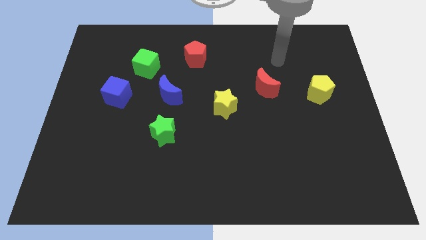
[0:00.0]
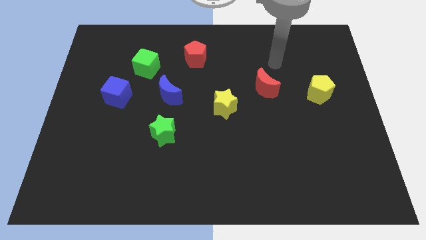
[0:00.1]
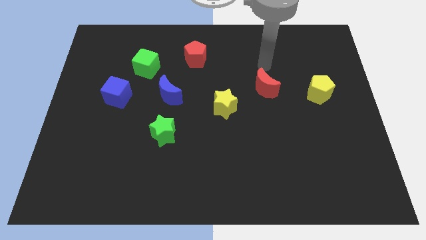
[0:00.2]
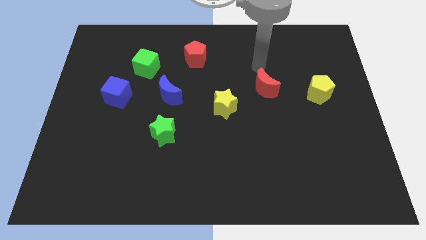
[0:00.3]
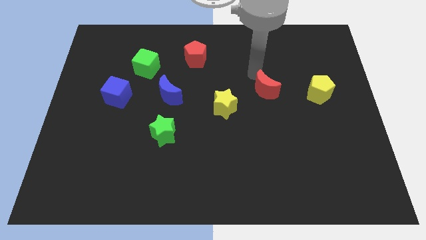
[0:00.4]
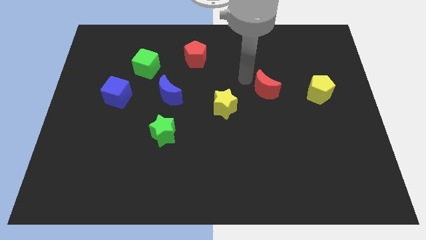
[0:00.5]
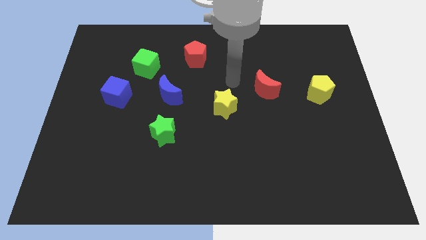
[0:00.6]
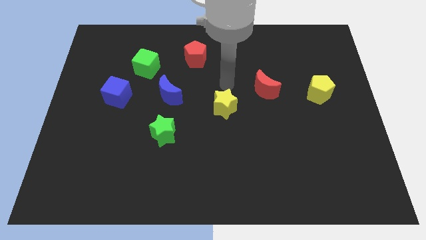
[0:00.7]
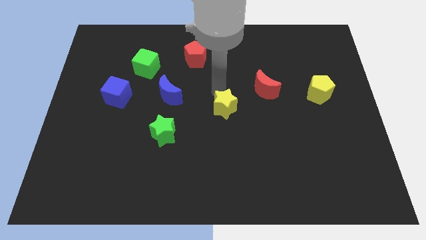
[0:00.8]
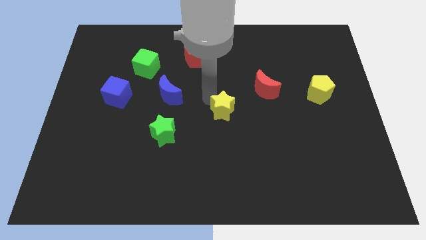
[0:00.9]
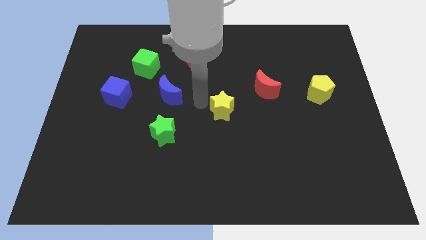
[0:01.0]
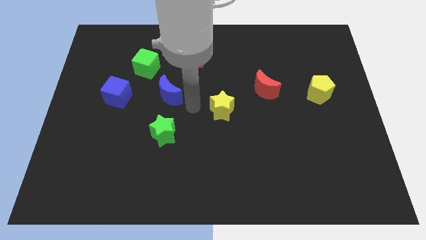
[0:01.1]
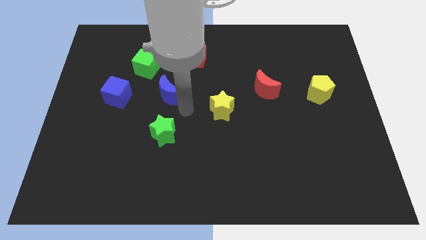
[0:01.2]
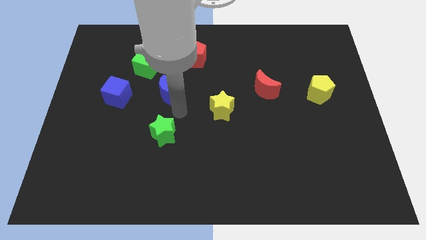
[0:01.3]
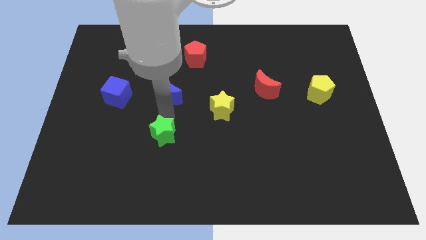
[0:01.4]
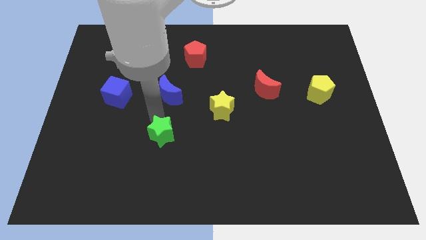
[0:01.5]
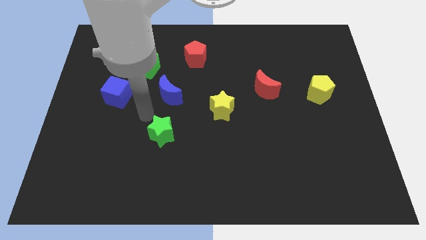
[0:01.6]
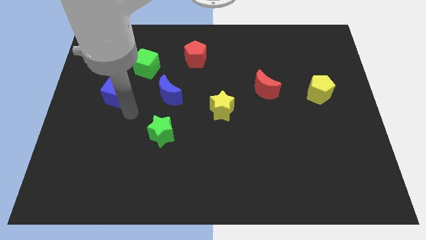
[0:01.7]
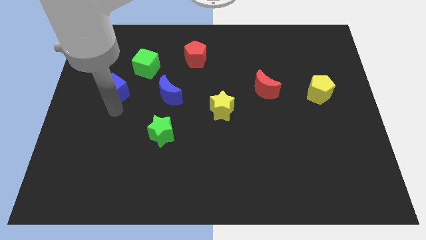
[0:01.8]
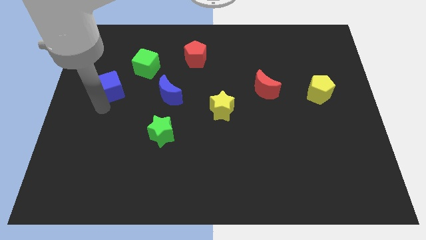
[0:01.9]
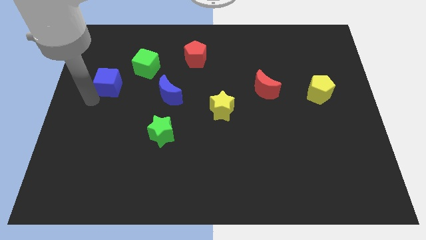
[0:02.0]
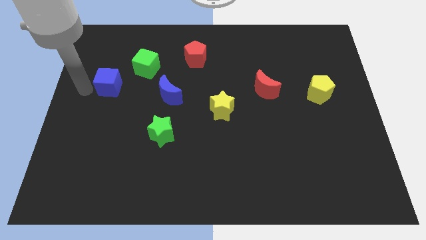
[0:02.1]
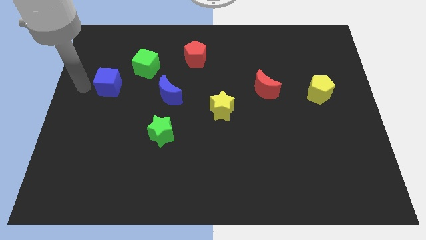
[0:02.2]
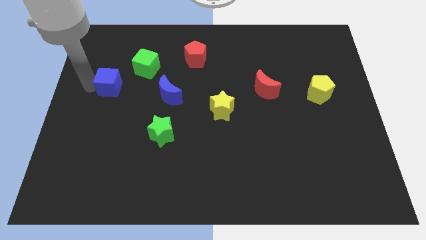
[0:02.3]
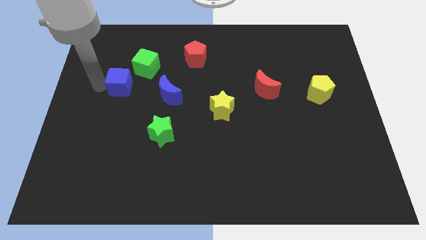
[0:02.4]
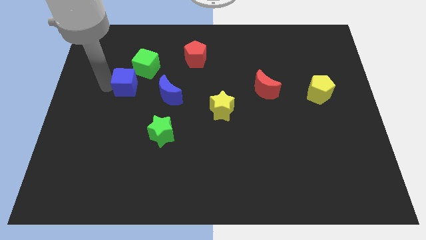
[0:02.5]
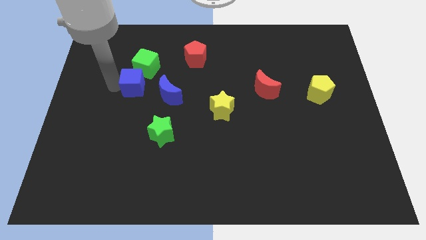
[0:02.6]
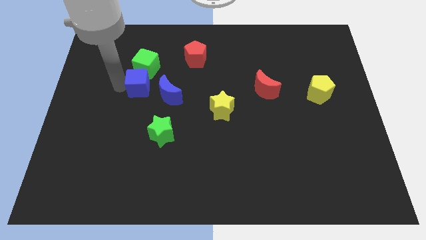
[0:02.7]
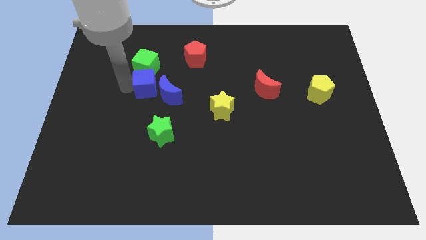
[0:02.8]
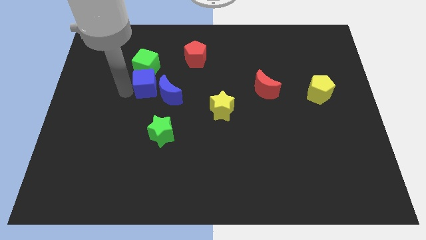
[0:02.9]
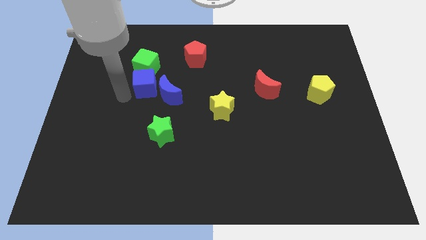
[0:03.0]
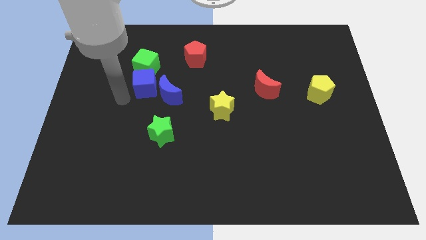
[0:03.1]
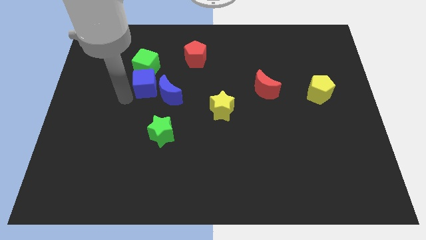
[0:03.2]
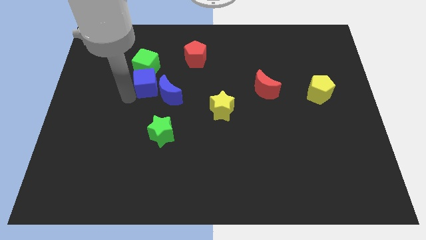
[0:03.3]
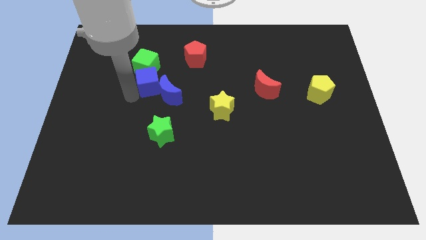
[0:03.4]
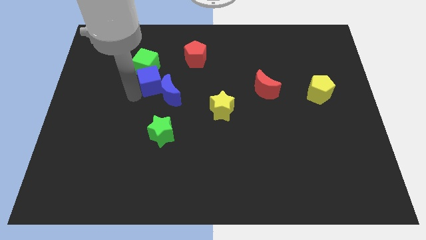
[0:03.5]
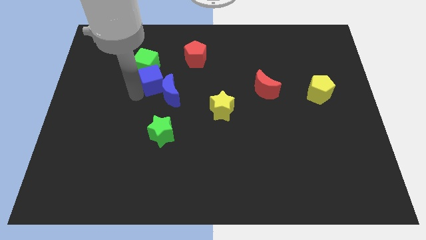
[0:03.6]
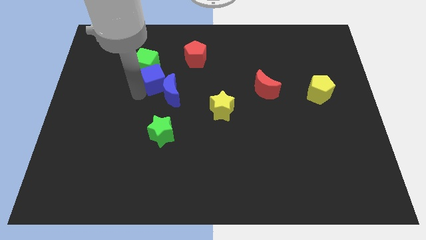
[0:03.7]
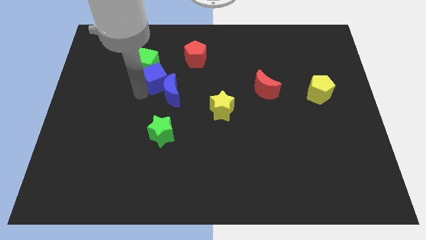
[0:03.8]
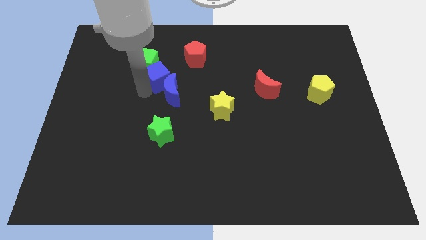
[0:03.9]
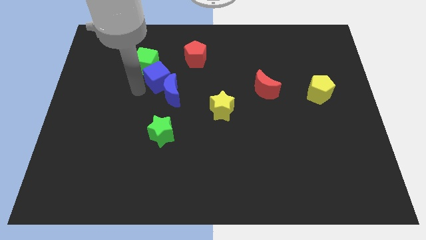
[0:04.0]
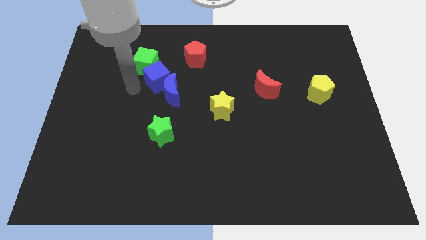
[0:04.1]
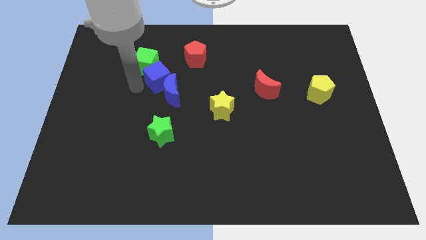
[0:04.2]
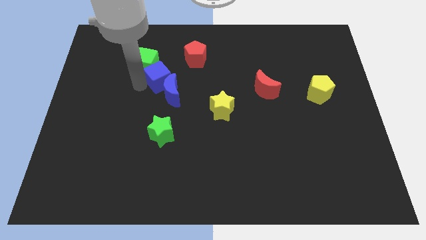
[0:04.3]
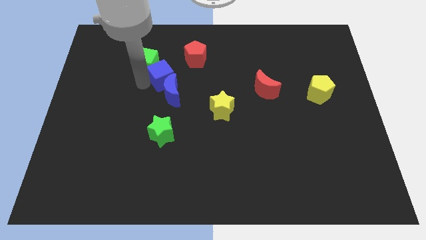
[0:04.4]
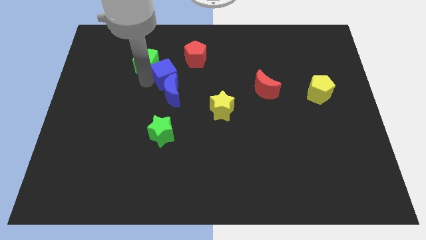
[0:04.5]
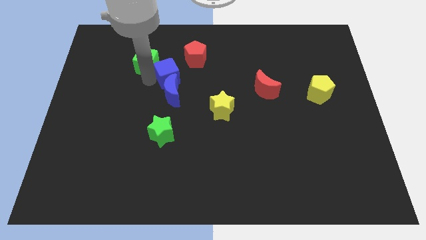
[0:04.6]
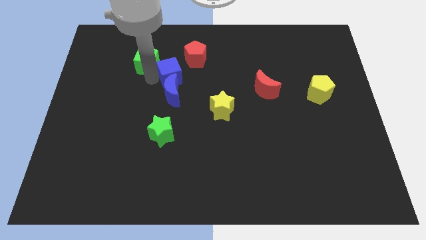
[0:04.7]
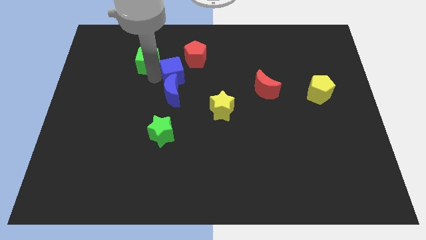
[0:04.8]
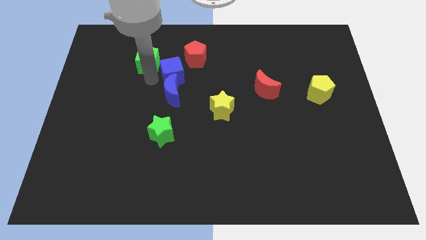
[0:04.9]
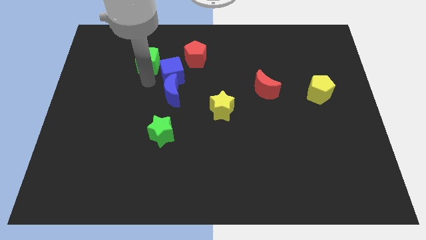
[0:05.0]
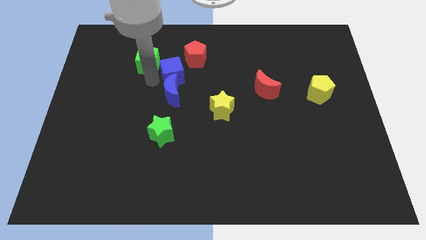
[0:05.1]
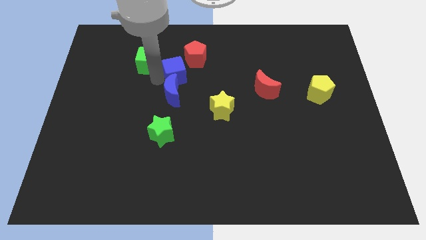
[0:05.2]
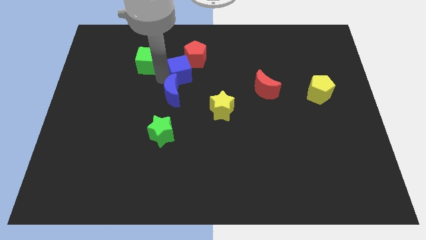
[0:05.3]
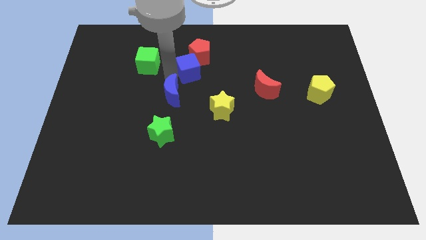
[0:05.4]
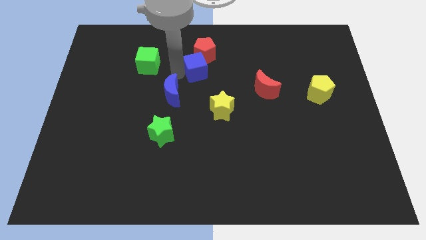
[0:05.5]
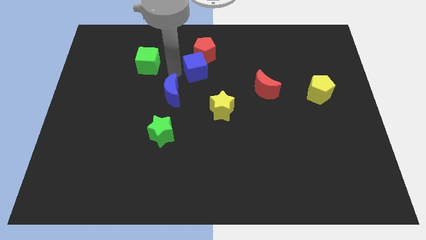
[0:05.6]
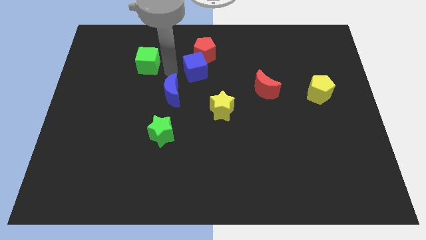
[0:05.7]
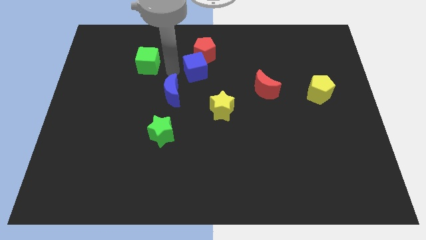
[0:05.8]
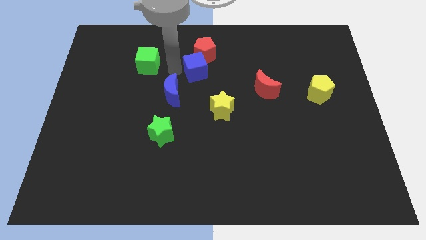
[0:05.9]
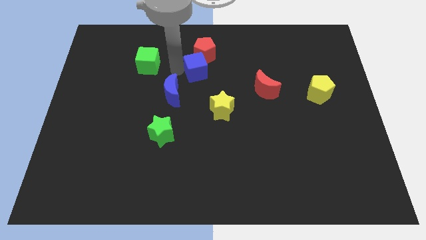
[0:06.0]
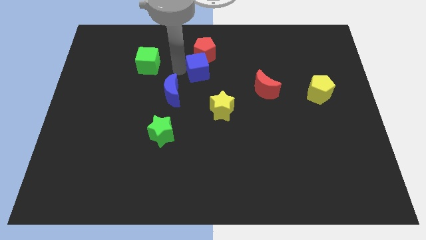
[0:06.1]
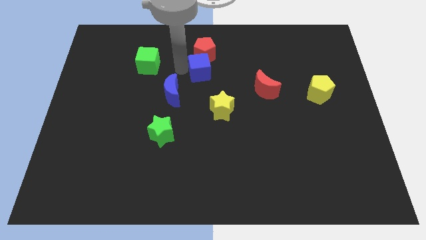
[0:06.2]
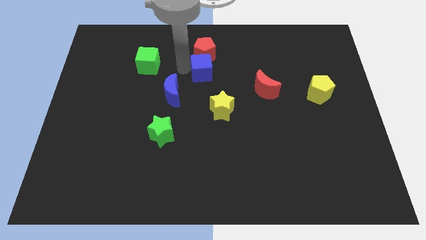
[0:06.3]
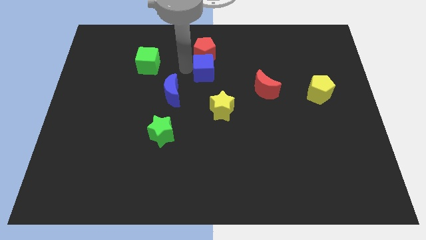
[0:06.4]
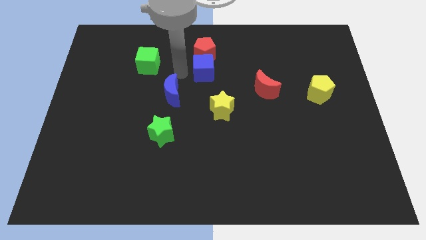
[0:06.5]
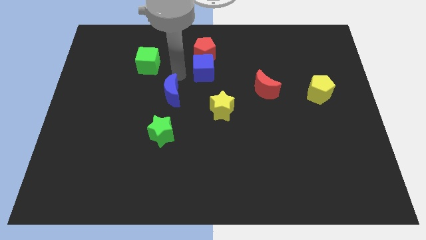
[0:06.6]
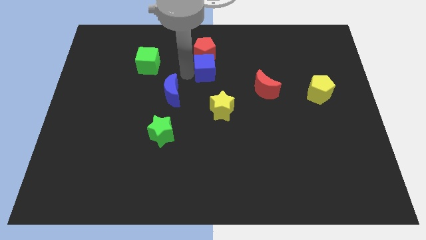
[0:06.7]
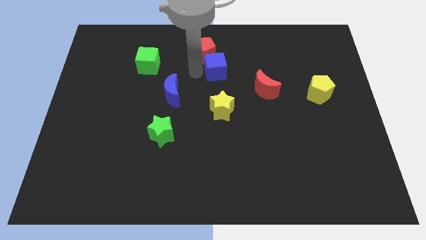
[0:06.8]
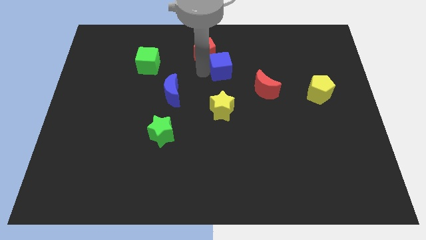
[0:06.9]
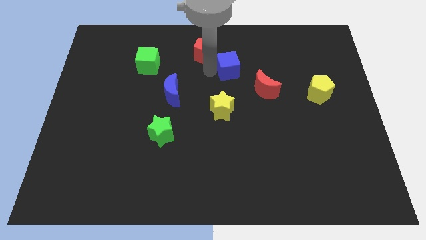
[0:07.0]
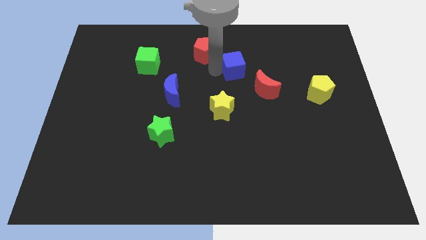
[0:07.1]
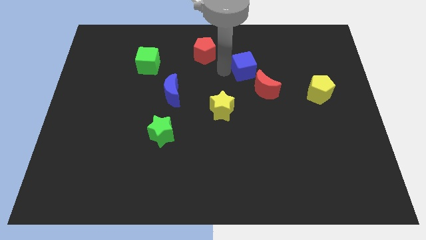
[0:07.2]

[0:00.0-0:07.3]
move the blue cube to the top of the red moon
